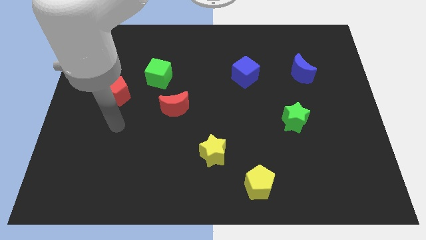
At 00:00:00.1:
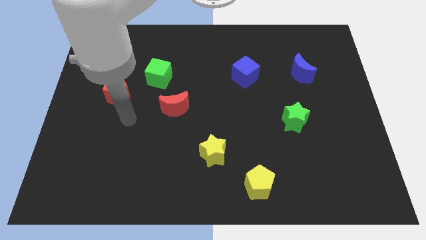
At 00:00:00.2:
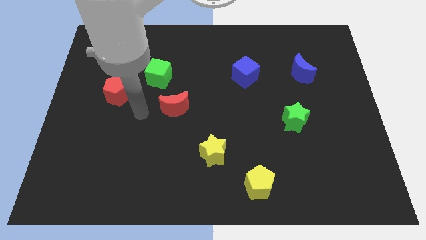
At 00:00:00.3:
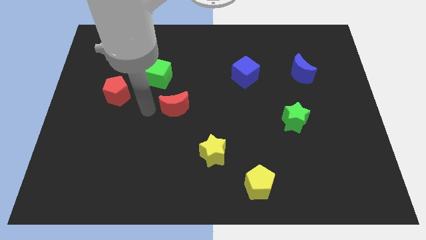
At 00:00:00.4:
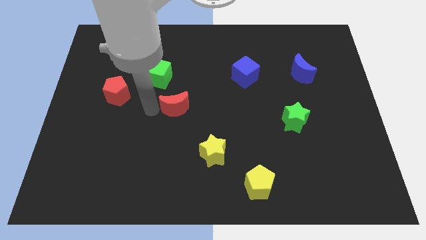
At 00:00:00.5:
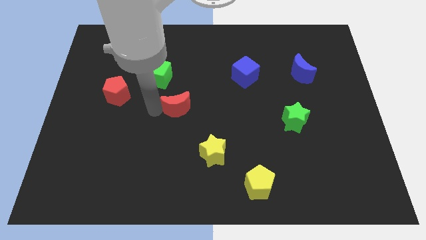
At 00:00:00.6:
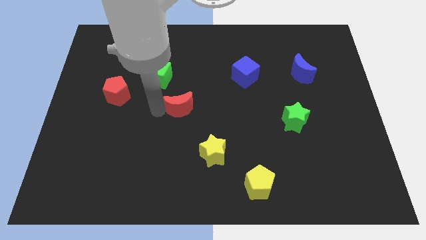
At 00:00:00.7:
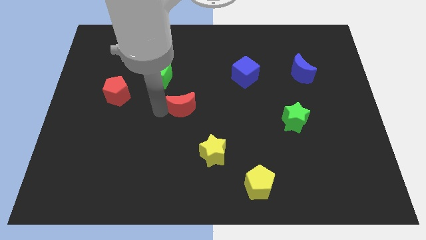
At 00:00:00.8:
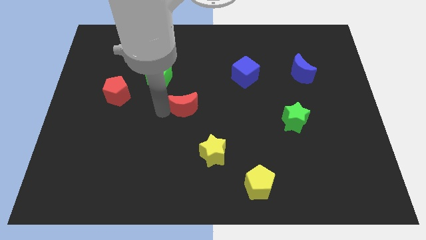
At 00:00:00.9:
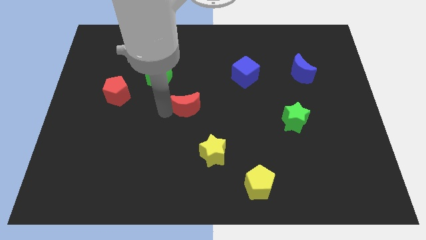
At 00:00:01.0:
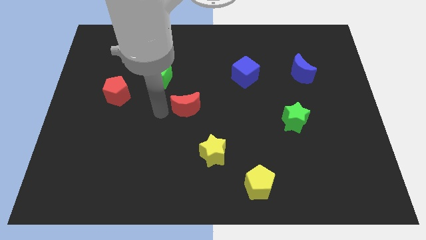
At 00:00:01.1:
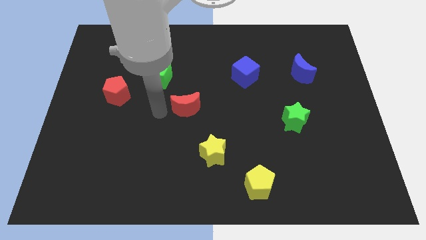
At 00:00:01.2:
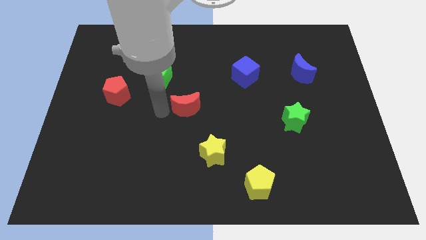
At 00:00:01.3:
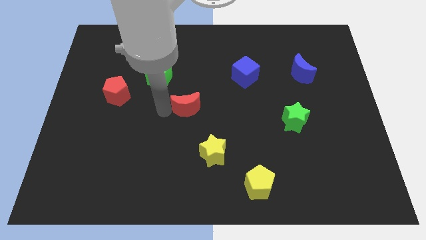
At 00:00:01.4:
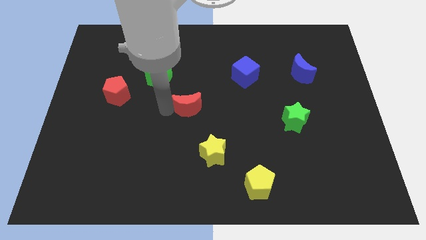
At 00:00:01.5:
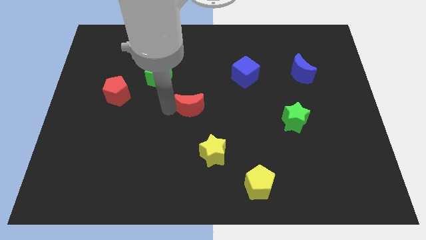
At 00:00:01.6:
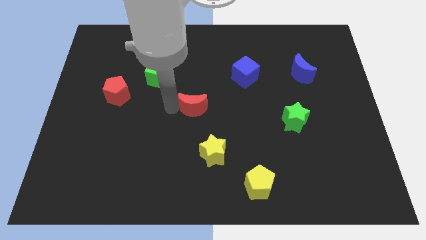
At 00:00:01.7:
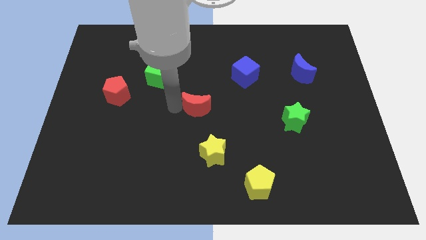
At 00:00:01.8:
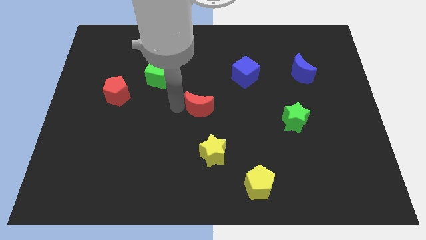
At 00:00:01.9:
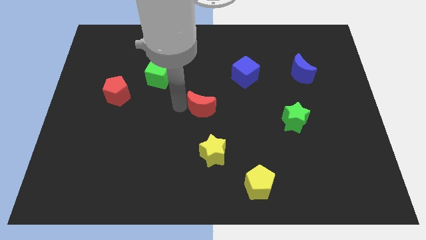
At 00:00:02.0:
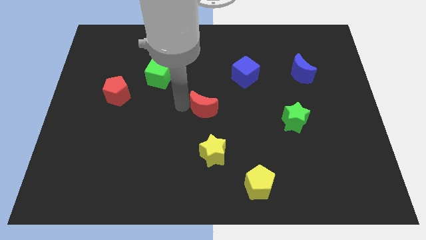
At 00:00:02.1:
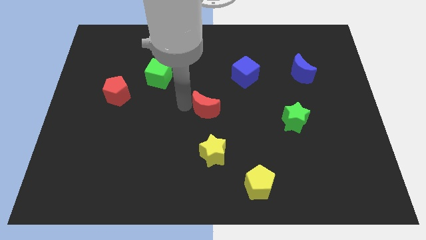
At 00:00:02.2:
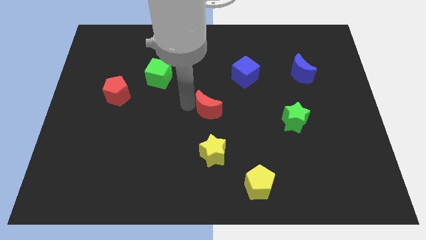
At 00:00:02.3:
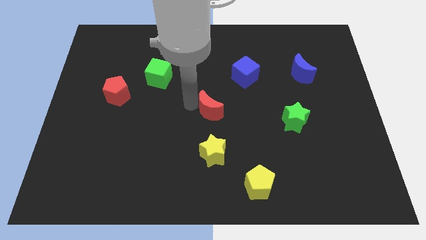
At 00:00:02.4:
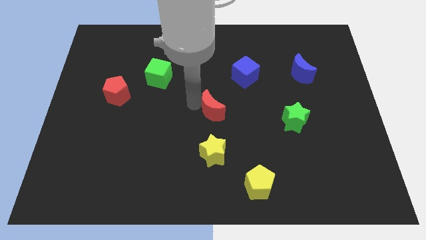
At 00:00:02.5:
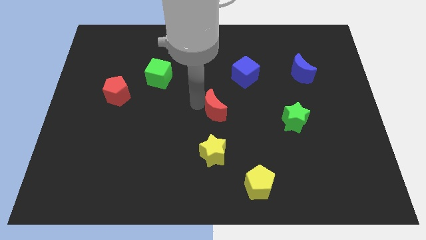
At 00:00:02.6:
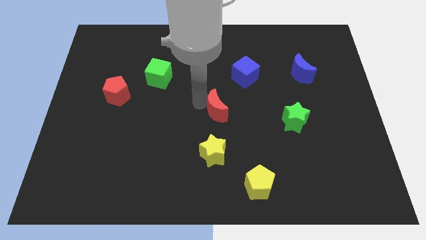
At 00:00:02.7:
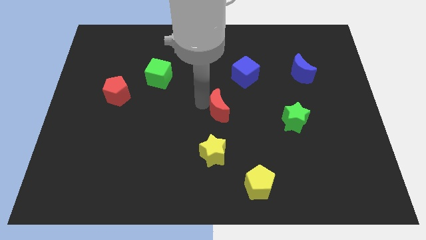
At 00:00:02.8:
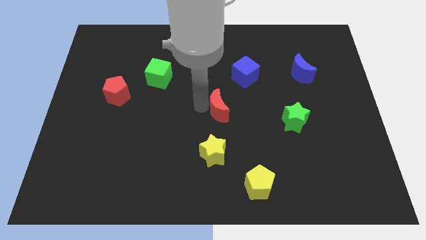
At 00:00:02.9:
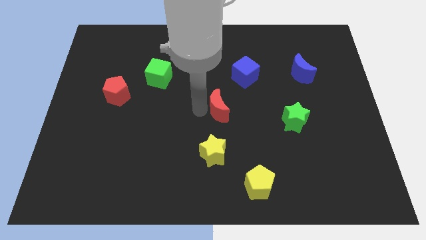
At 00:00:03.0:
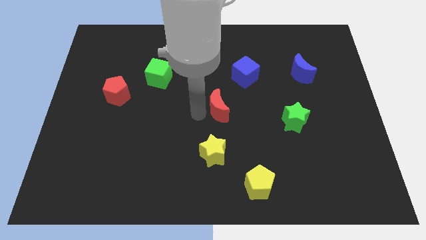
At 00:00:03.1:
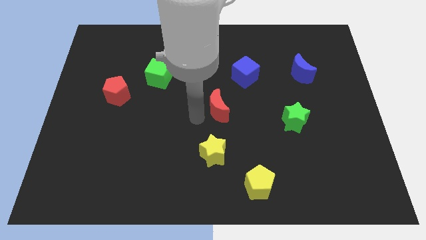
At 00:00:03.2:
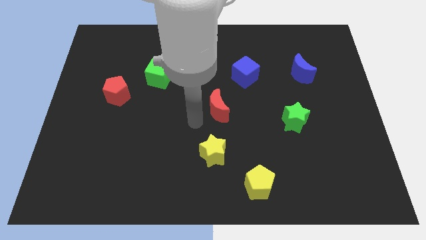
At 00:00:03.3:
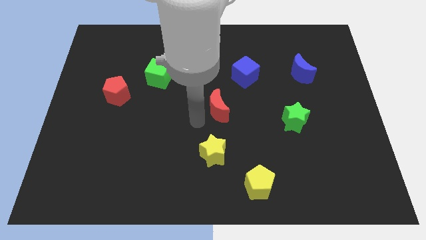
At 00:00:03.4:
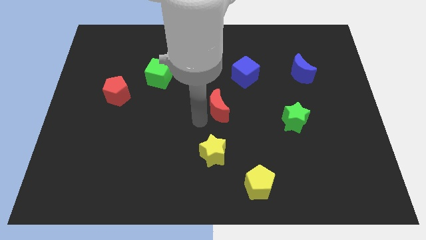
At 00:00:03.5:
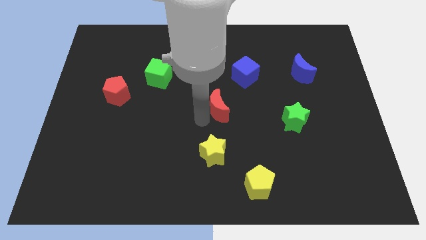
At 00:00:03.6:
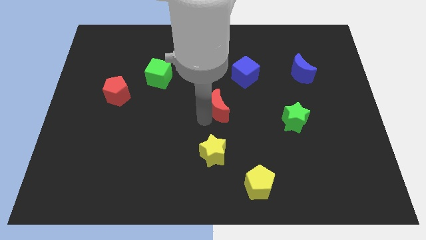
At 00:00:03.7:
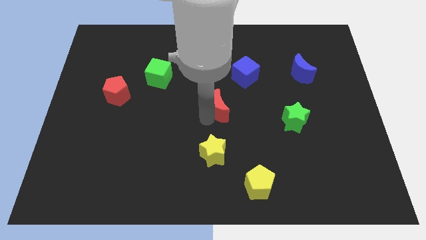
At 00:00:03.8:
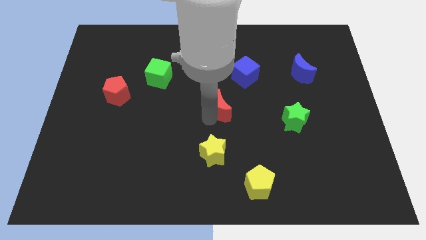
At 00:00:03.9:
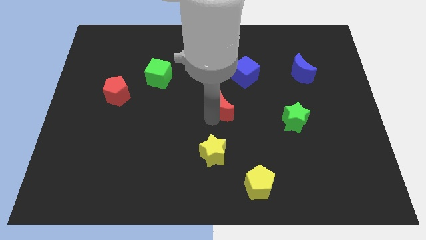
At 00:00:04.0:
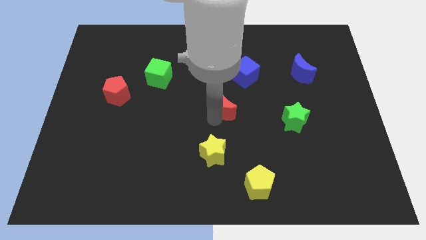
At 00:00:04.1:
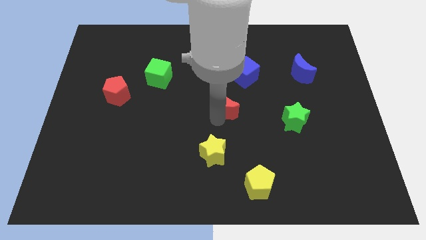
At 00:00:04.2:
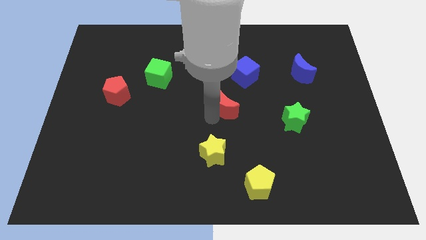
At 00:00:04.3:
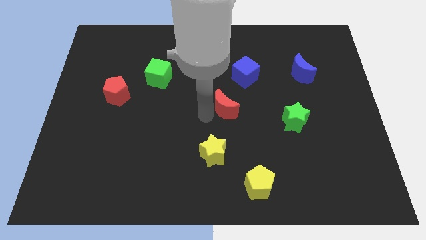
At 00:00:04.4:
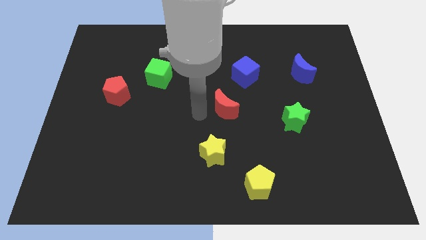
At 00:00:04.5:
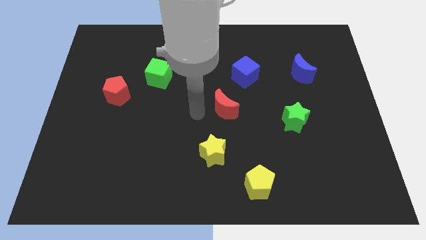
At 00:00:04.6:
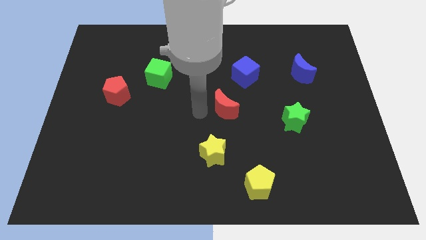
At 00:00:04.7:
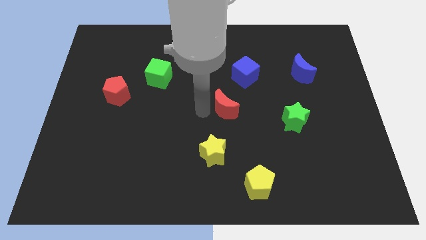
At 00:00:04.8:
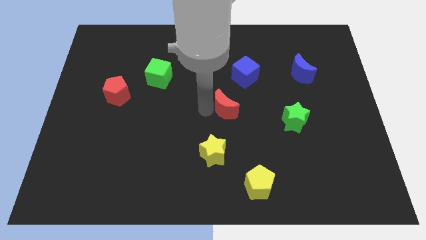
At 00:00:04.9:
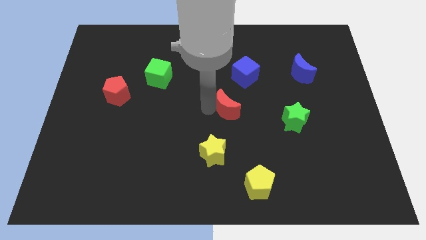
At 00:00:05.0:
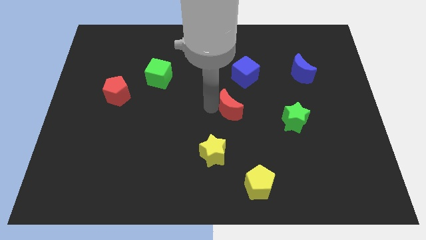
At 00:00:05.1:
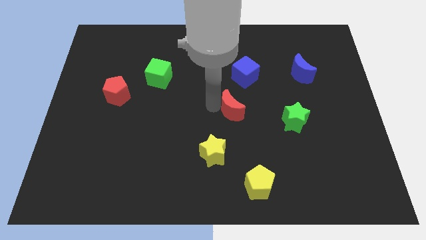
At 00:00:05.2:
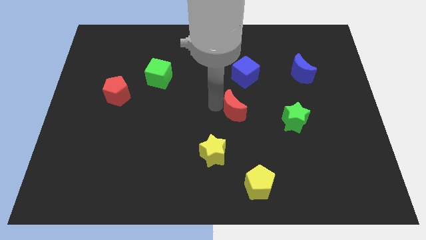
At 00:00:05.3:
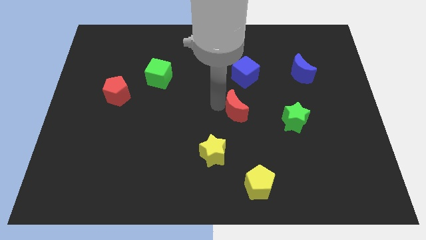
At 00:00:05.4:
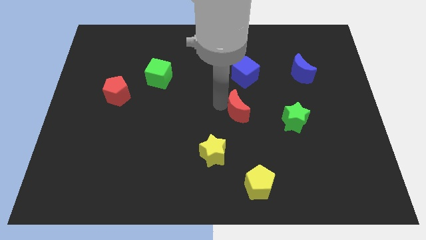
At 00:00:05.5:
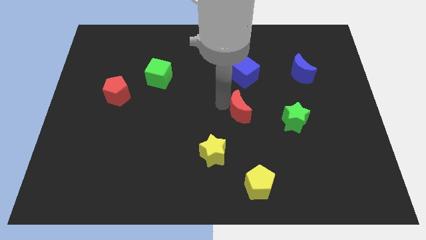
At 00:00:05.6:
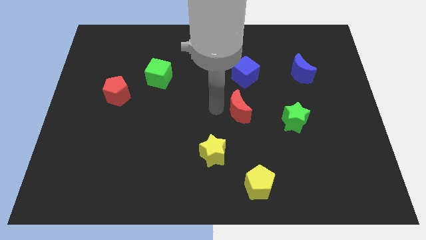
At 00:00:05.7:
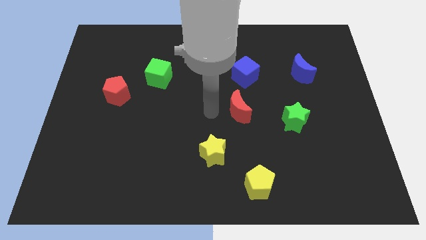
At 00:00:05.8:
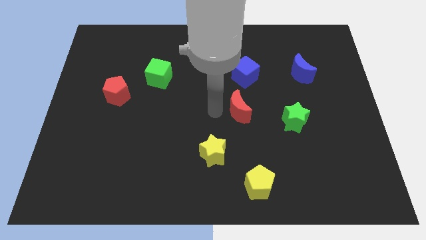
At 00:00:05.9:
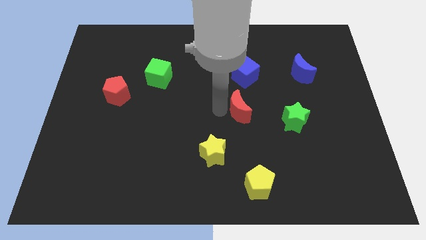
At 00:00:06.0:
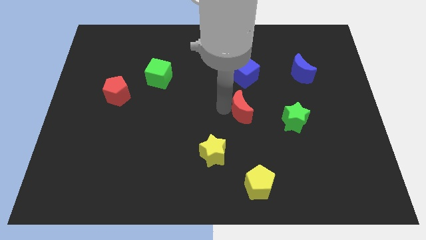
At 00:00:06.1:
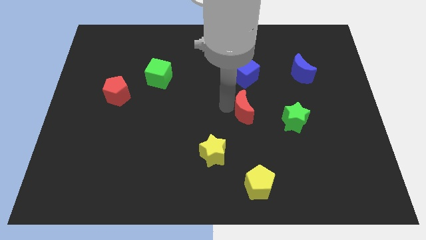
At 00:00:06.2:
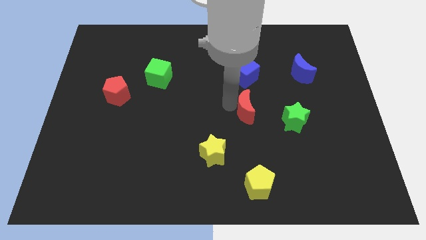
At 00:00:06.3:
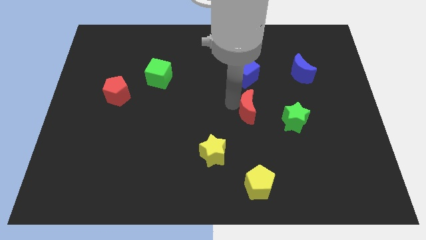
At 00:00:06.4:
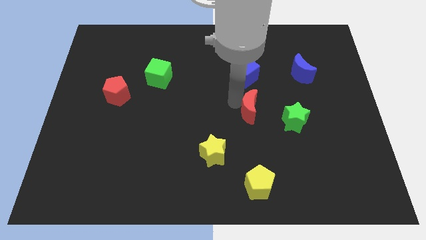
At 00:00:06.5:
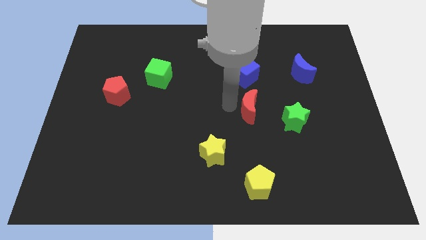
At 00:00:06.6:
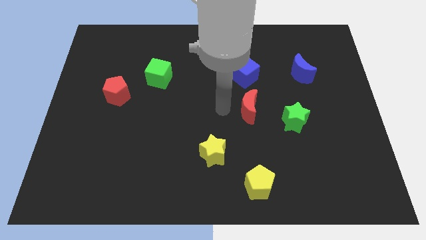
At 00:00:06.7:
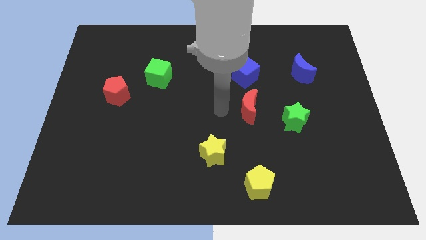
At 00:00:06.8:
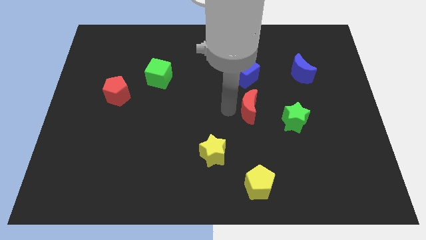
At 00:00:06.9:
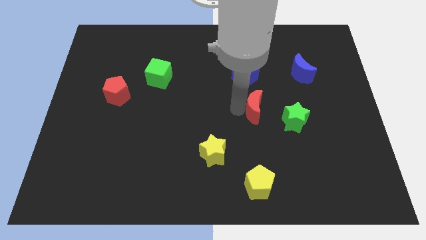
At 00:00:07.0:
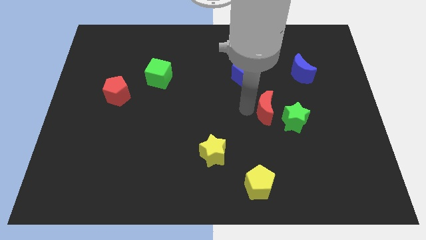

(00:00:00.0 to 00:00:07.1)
slide the red moon to the right

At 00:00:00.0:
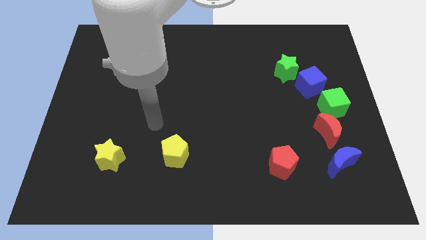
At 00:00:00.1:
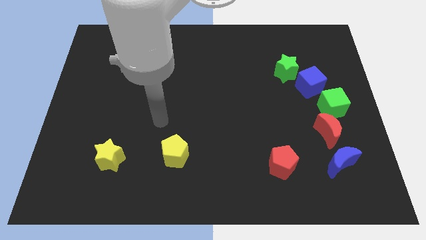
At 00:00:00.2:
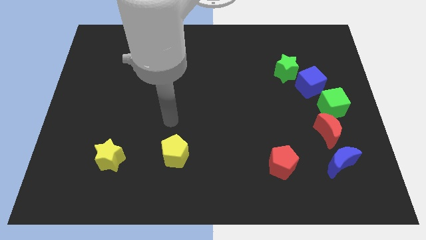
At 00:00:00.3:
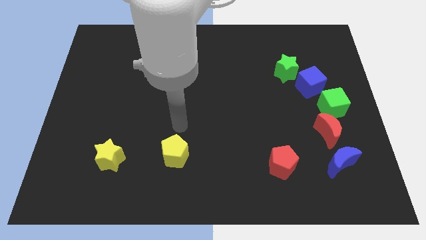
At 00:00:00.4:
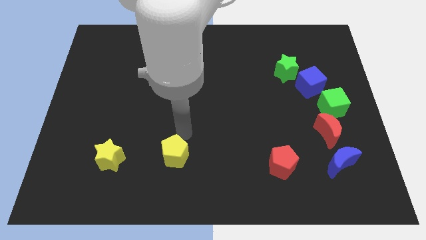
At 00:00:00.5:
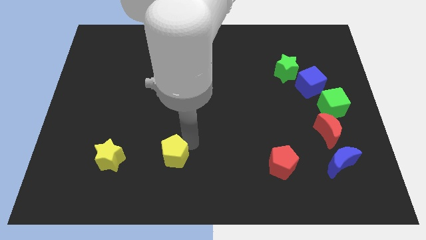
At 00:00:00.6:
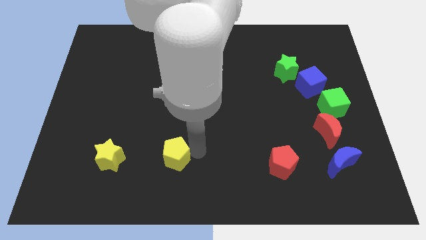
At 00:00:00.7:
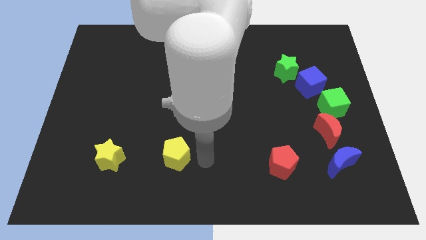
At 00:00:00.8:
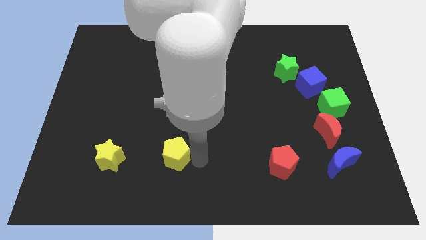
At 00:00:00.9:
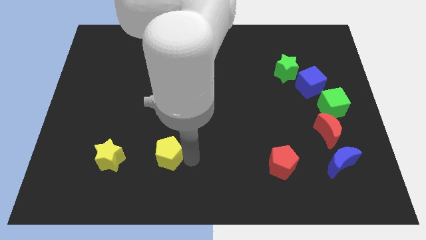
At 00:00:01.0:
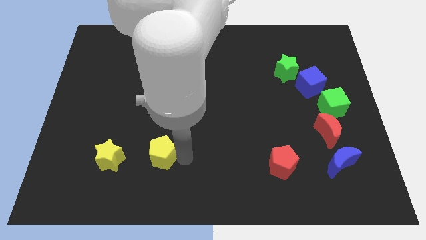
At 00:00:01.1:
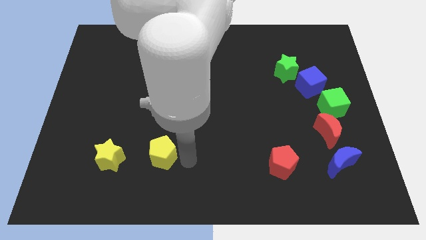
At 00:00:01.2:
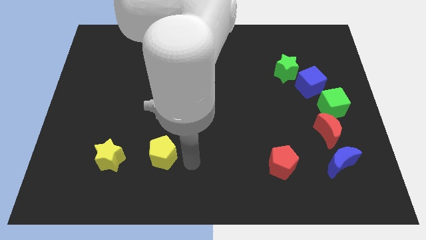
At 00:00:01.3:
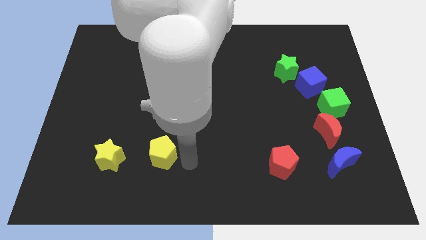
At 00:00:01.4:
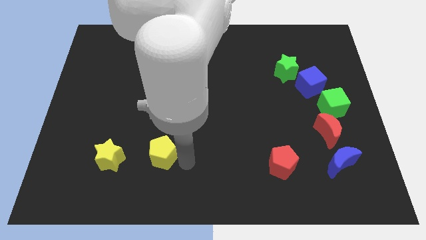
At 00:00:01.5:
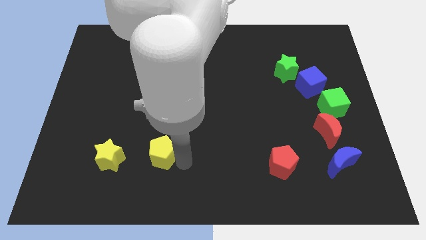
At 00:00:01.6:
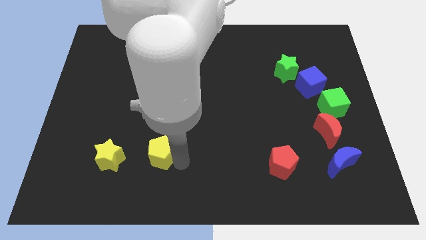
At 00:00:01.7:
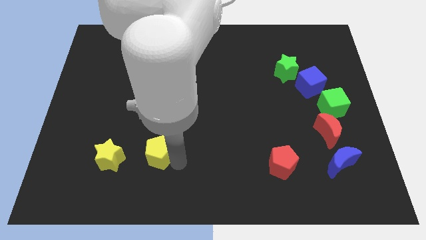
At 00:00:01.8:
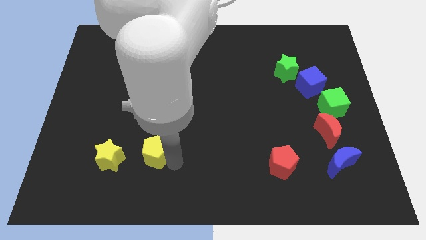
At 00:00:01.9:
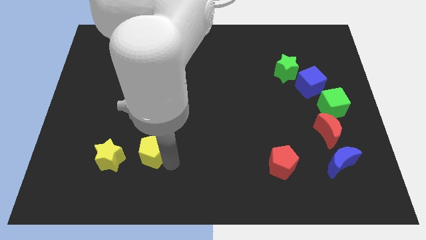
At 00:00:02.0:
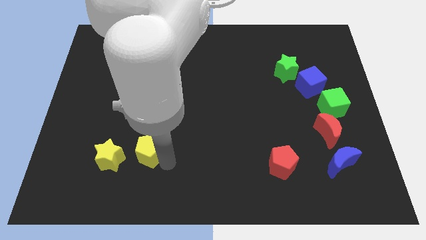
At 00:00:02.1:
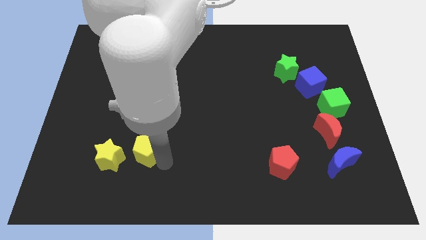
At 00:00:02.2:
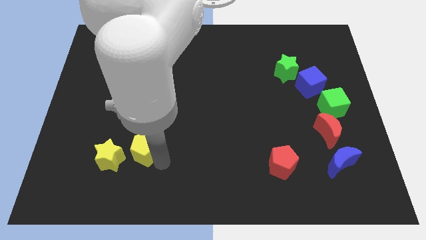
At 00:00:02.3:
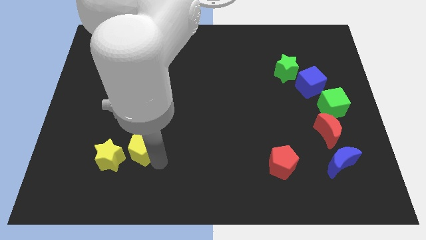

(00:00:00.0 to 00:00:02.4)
move the yellow pentagon to the left somewhat
